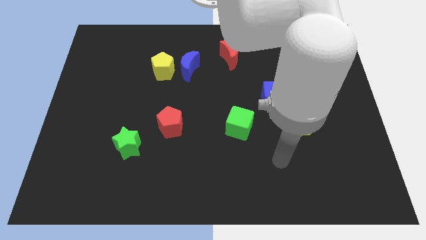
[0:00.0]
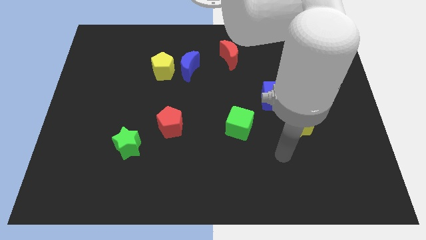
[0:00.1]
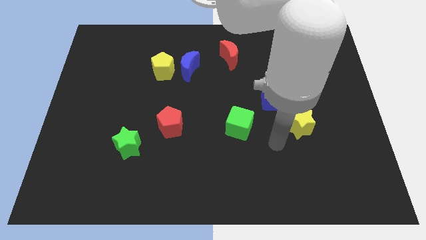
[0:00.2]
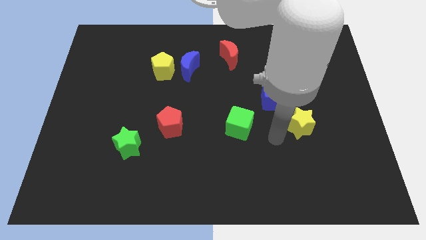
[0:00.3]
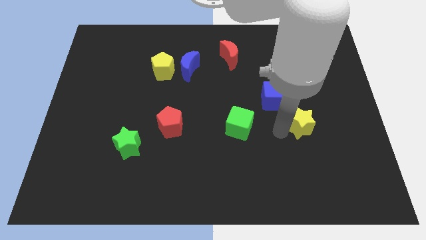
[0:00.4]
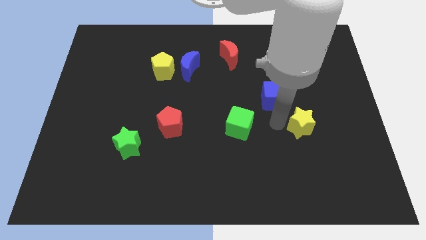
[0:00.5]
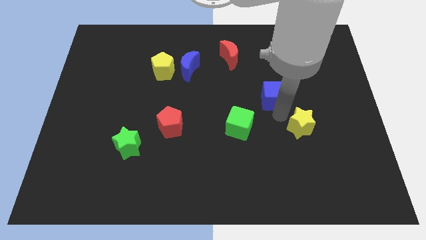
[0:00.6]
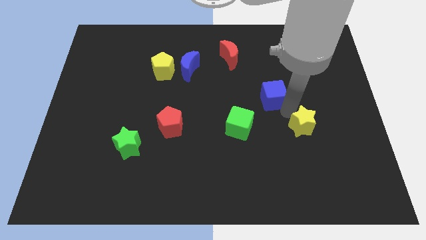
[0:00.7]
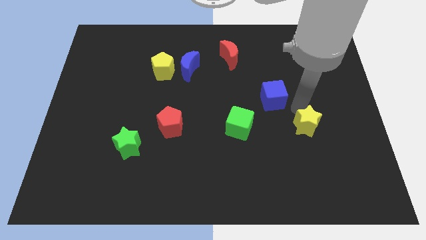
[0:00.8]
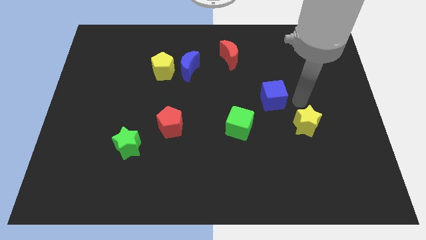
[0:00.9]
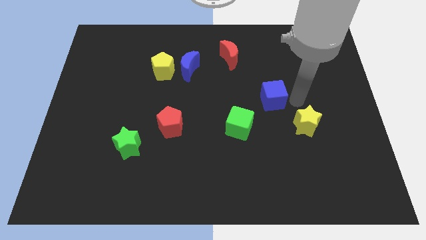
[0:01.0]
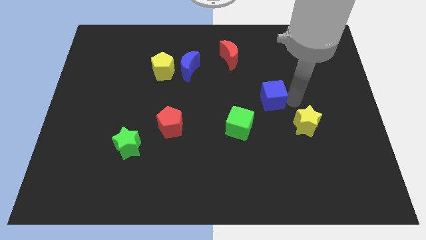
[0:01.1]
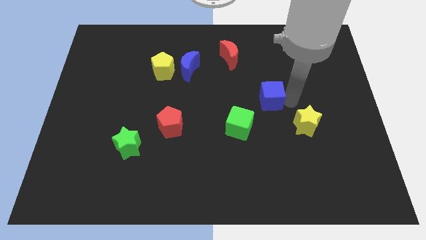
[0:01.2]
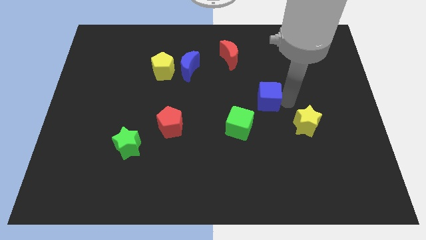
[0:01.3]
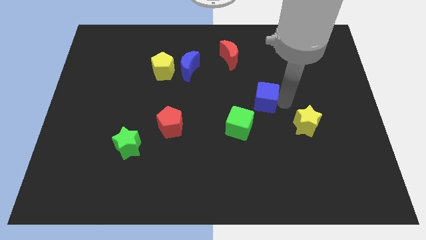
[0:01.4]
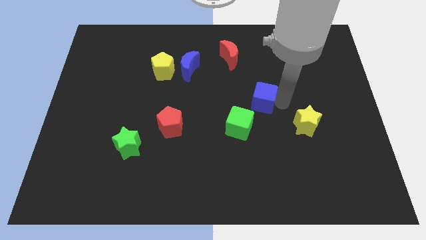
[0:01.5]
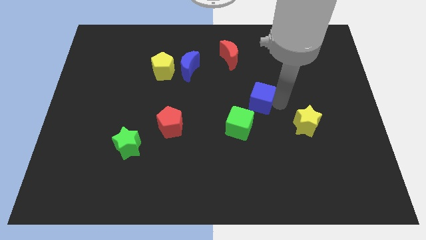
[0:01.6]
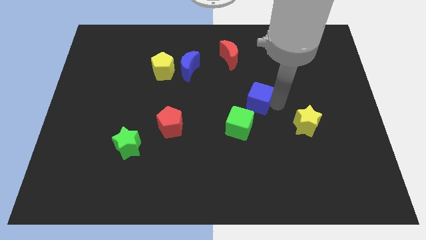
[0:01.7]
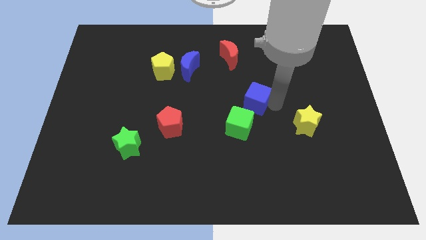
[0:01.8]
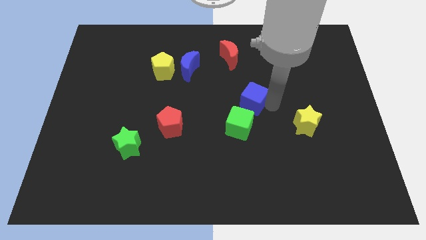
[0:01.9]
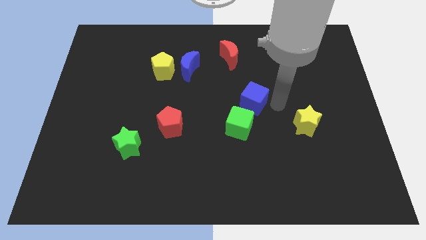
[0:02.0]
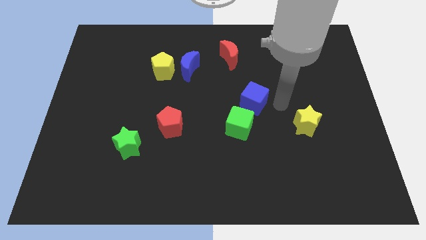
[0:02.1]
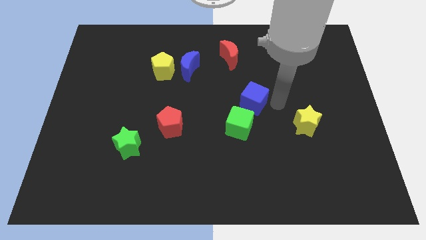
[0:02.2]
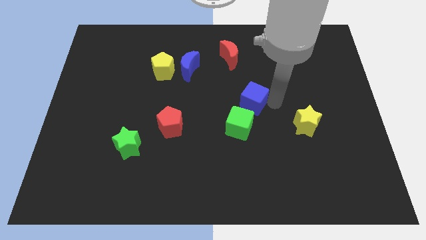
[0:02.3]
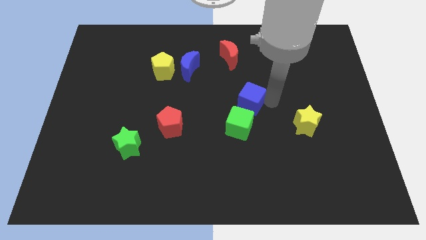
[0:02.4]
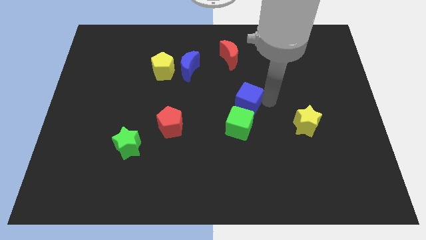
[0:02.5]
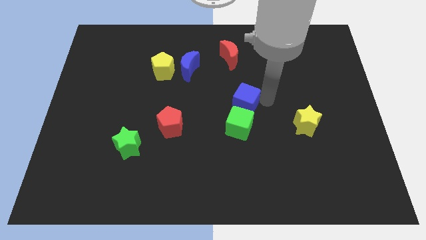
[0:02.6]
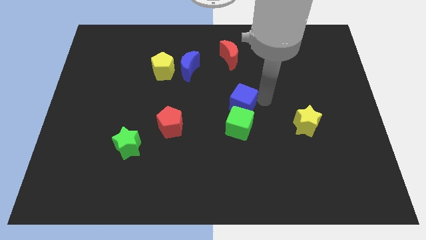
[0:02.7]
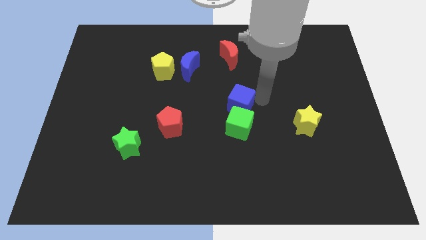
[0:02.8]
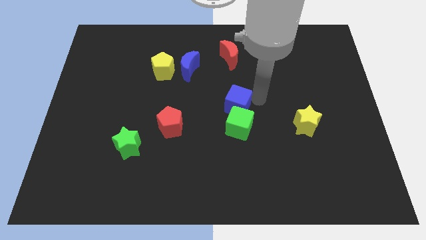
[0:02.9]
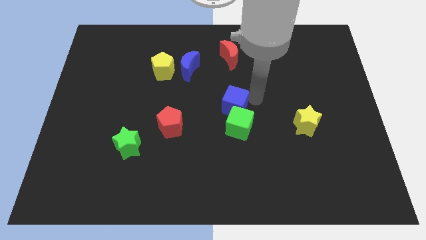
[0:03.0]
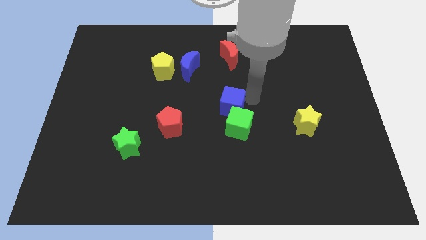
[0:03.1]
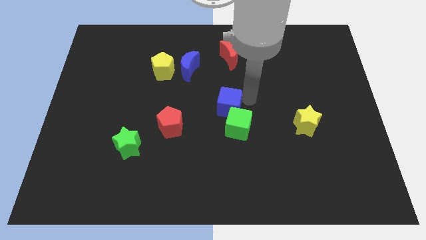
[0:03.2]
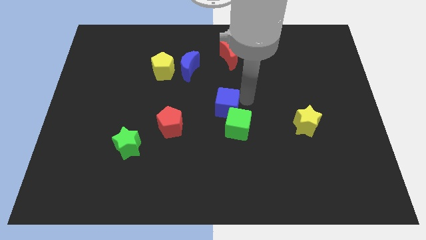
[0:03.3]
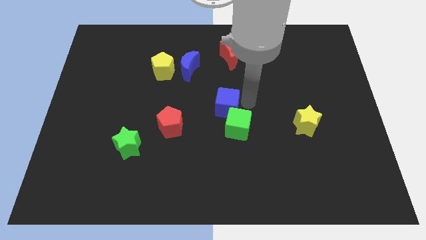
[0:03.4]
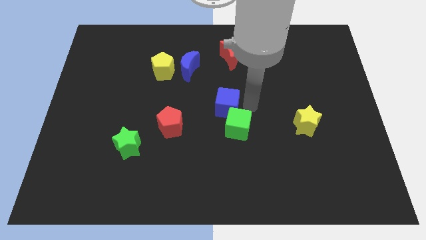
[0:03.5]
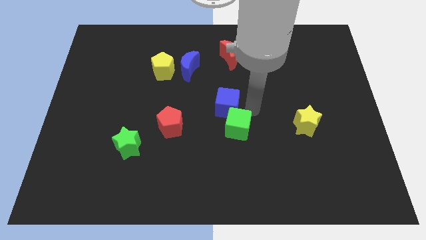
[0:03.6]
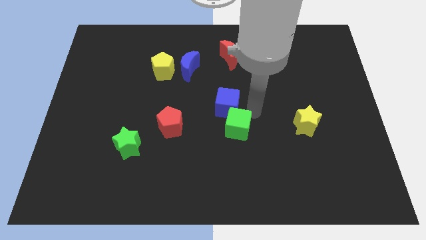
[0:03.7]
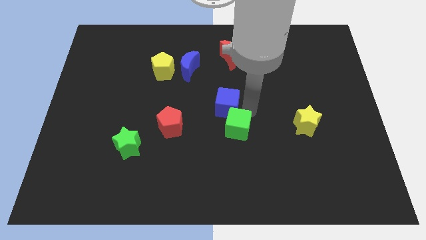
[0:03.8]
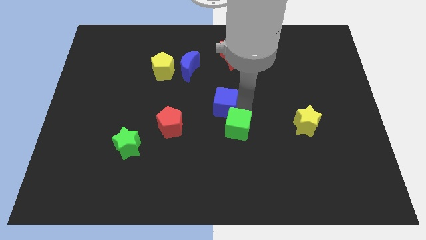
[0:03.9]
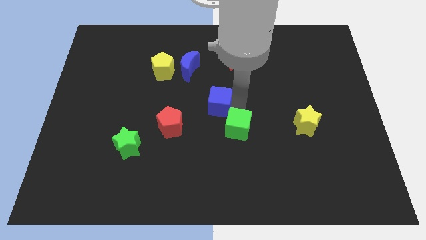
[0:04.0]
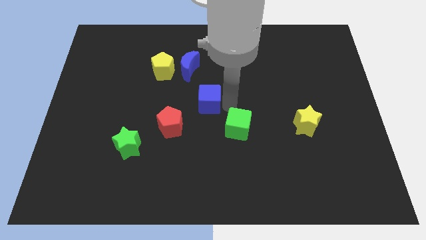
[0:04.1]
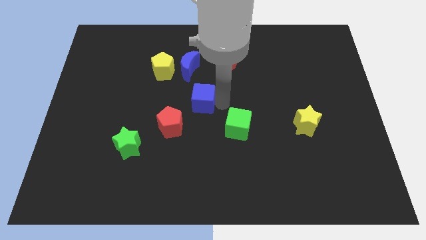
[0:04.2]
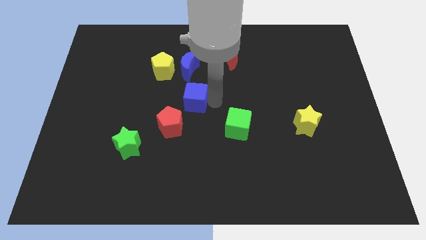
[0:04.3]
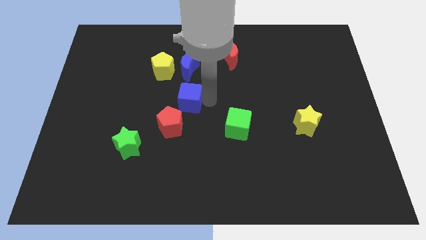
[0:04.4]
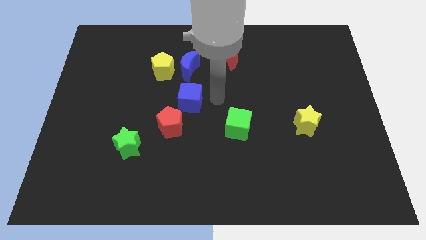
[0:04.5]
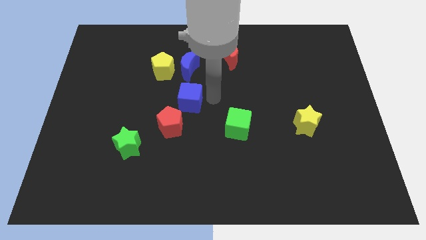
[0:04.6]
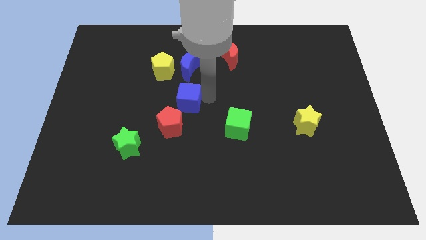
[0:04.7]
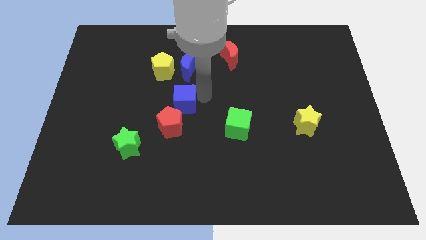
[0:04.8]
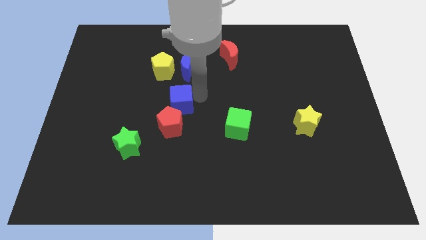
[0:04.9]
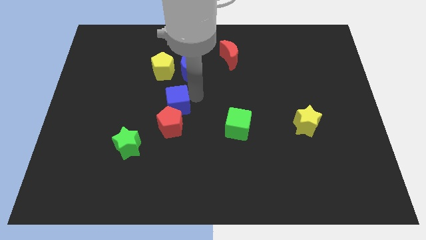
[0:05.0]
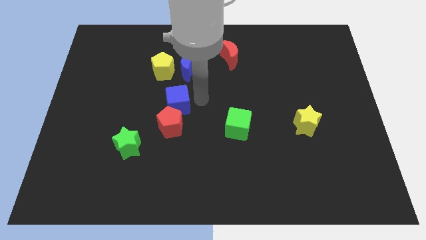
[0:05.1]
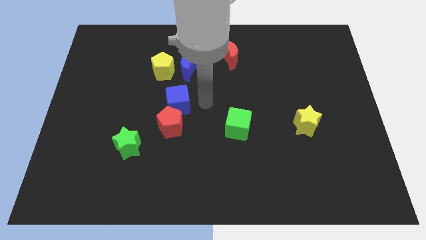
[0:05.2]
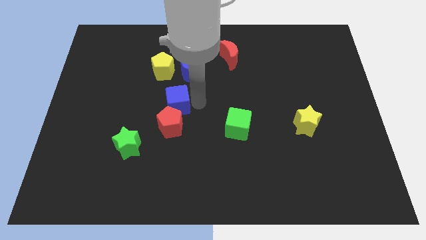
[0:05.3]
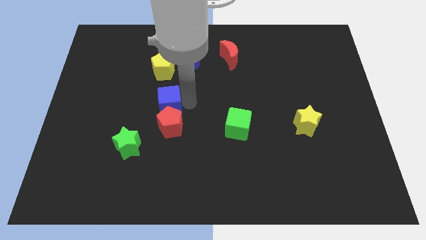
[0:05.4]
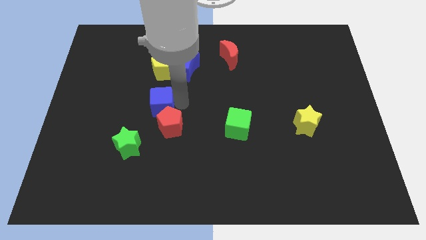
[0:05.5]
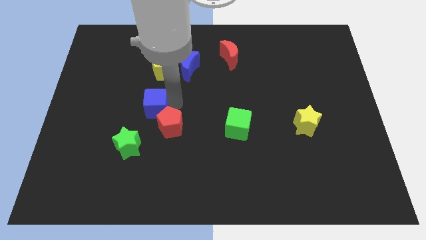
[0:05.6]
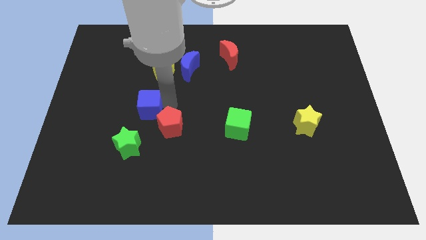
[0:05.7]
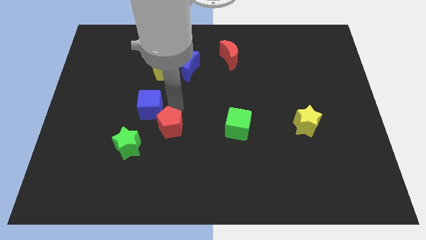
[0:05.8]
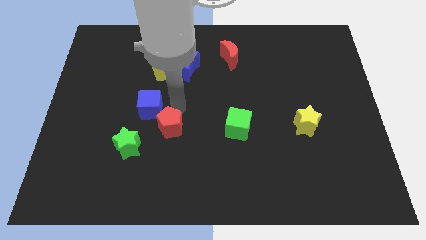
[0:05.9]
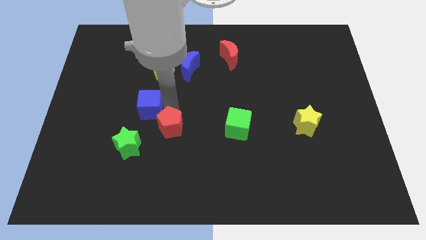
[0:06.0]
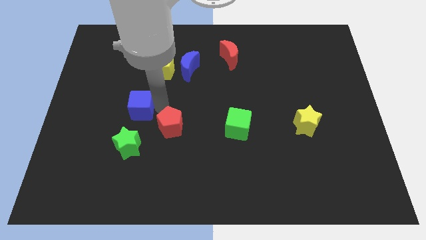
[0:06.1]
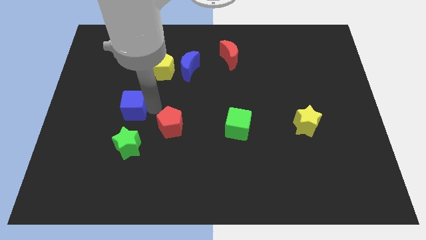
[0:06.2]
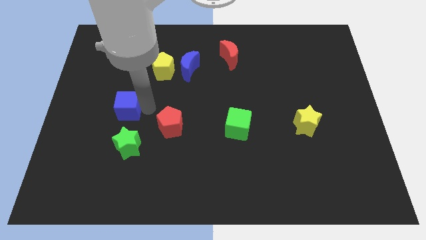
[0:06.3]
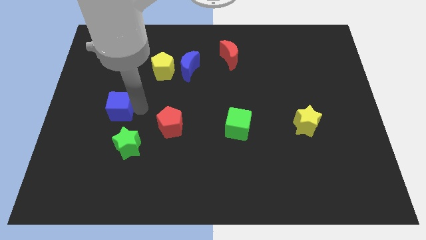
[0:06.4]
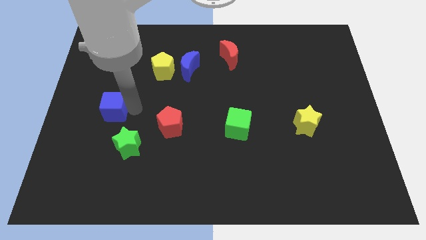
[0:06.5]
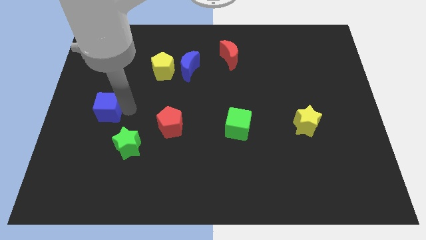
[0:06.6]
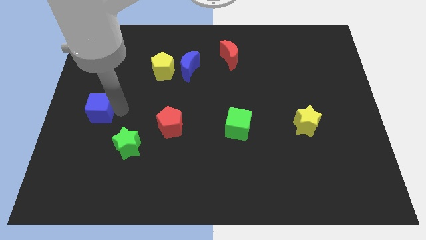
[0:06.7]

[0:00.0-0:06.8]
move the blue cube to the left side of the board

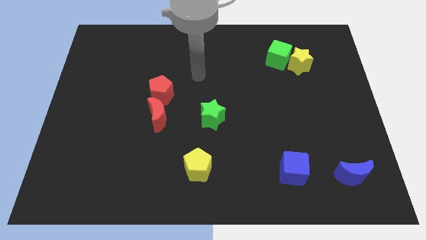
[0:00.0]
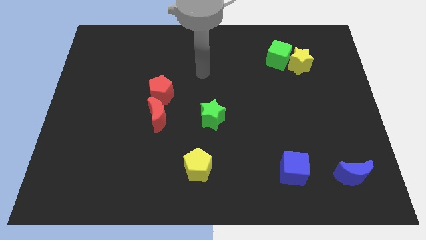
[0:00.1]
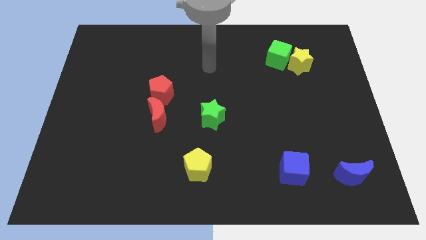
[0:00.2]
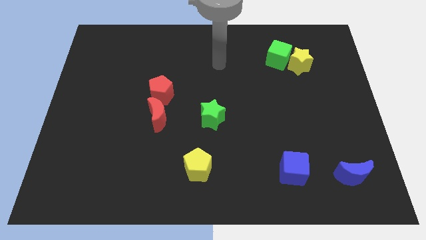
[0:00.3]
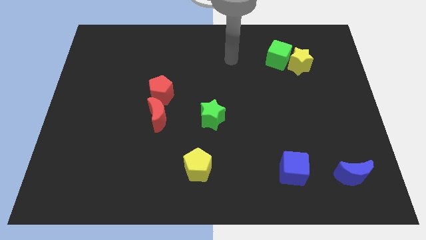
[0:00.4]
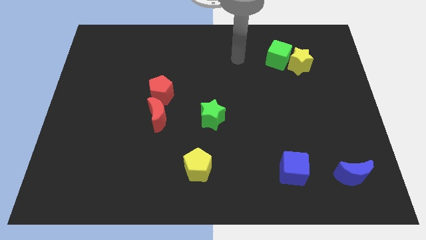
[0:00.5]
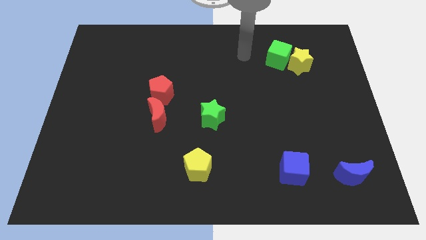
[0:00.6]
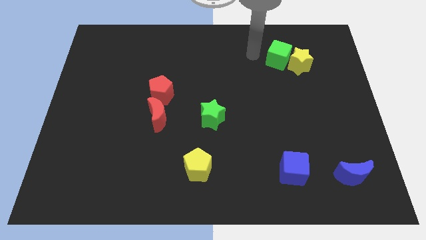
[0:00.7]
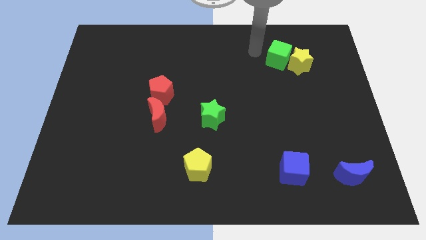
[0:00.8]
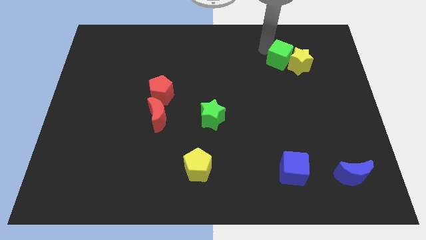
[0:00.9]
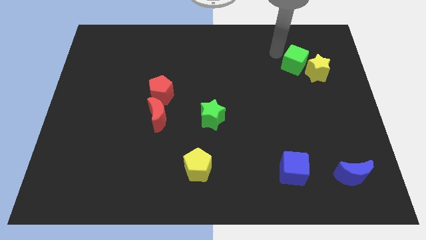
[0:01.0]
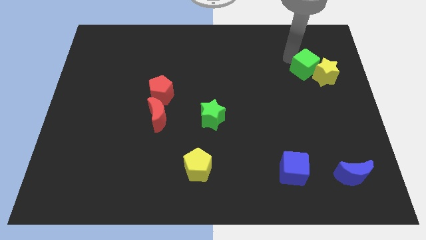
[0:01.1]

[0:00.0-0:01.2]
slide the yellow star to the right side
